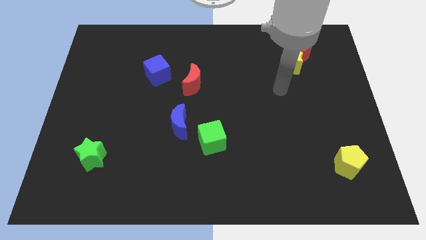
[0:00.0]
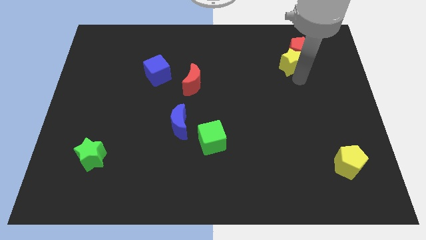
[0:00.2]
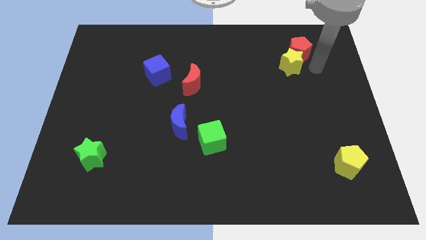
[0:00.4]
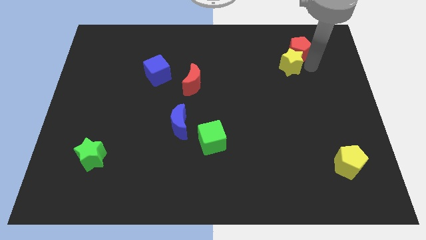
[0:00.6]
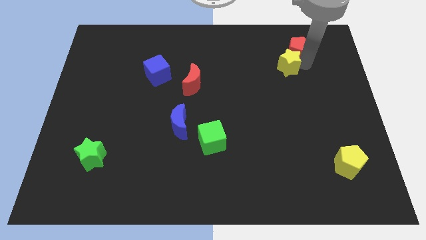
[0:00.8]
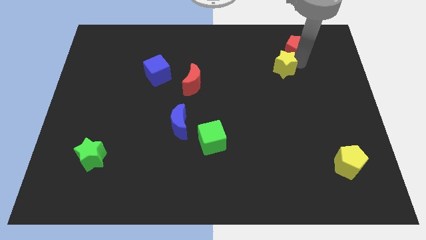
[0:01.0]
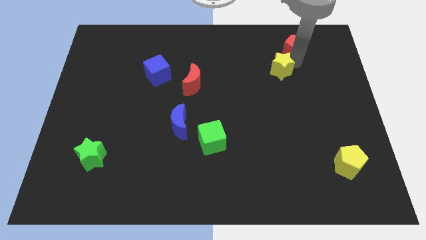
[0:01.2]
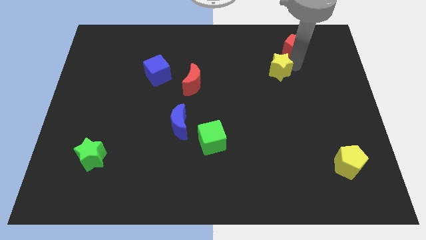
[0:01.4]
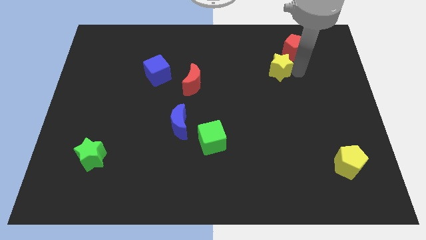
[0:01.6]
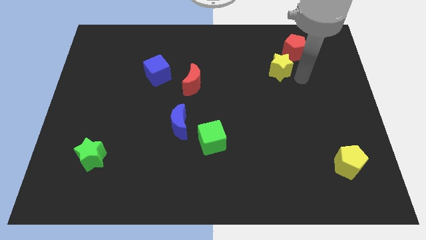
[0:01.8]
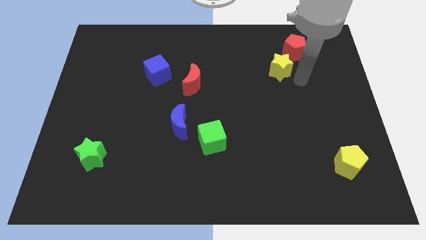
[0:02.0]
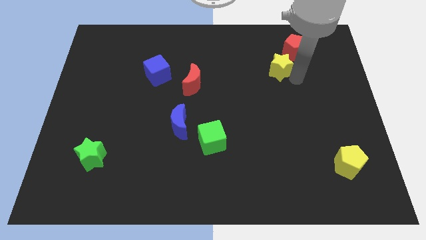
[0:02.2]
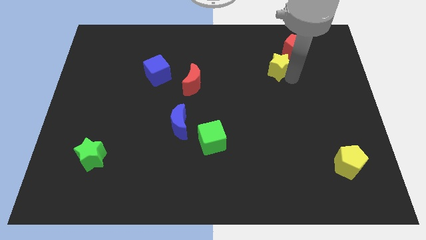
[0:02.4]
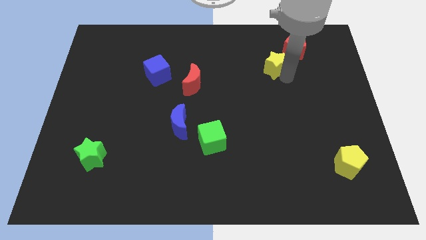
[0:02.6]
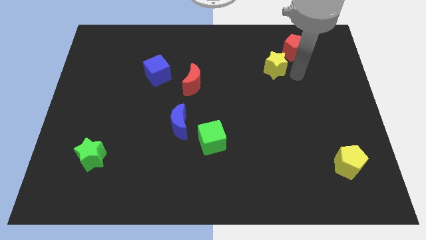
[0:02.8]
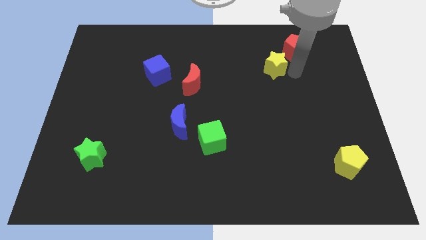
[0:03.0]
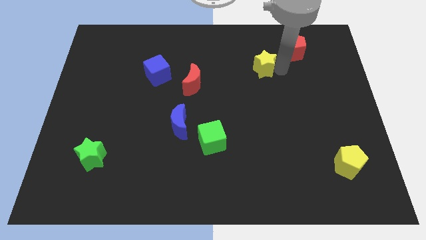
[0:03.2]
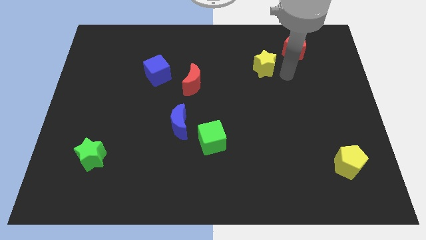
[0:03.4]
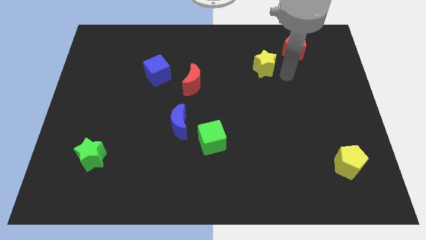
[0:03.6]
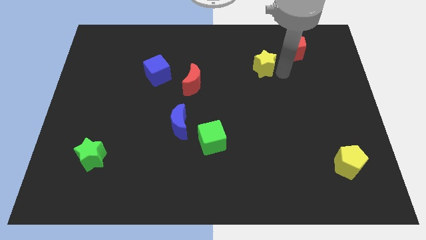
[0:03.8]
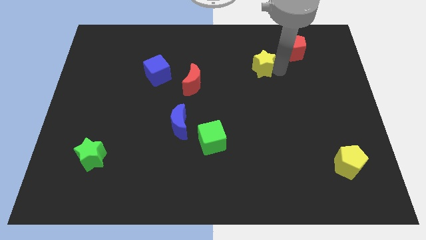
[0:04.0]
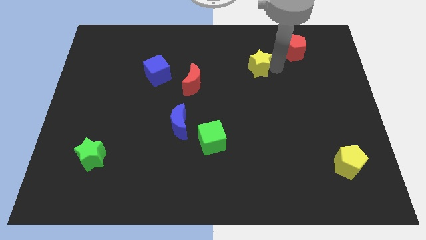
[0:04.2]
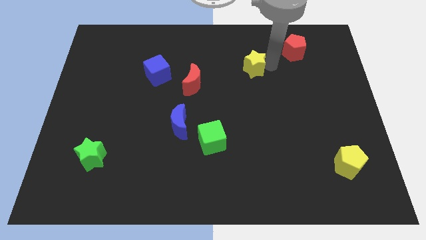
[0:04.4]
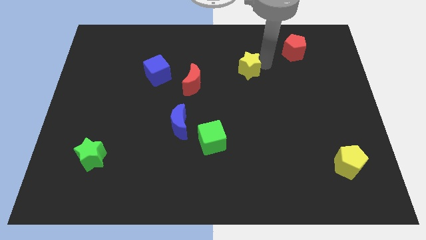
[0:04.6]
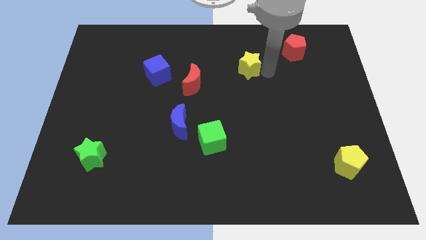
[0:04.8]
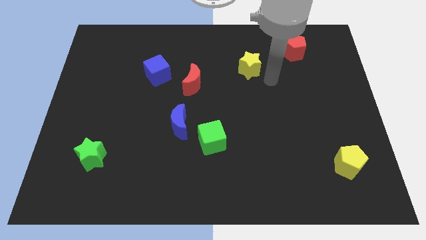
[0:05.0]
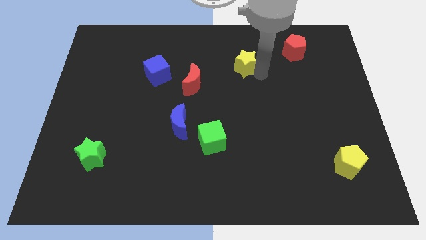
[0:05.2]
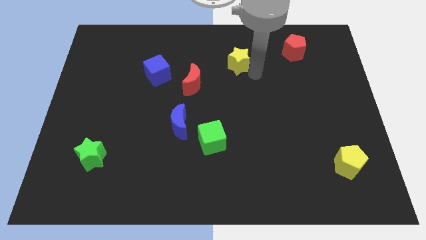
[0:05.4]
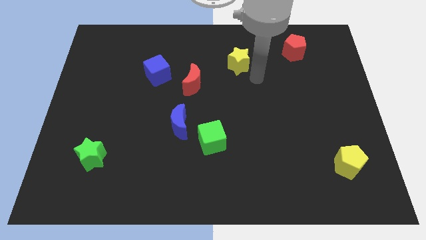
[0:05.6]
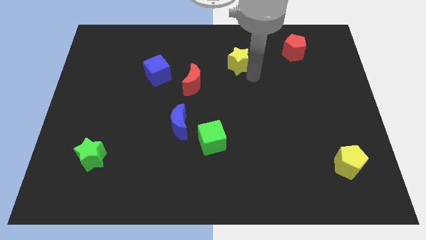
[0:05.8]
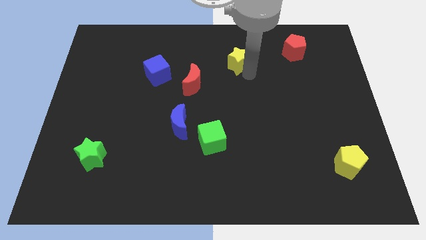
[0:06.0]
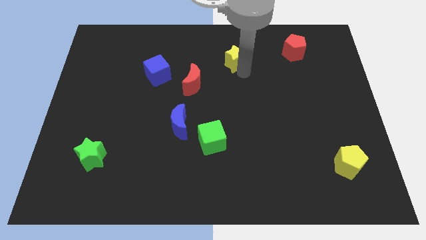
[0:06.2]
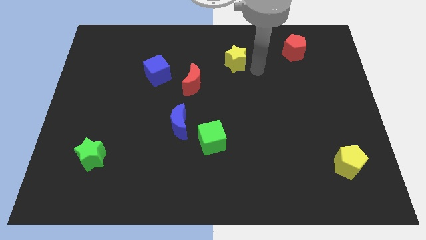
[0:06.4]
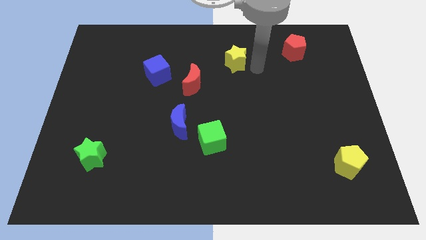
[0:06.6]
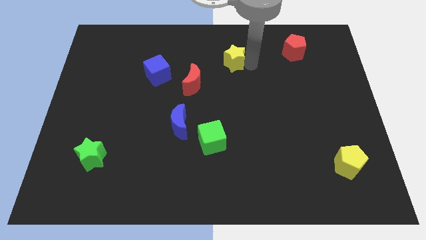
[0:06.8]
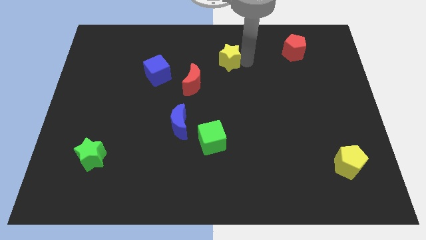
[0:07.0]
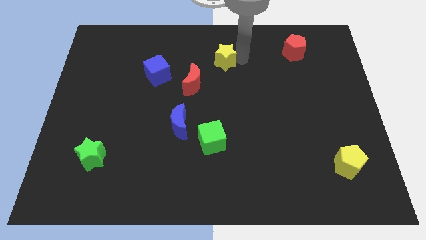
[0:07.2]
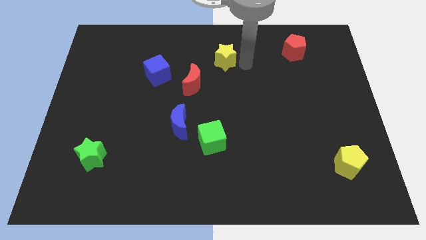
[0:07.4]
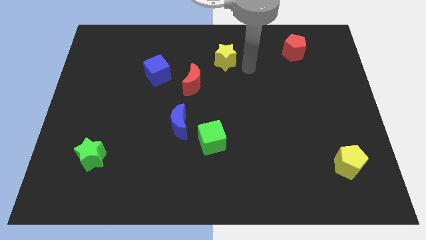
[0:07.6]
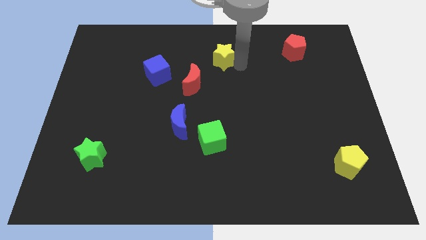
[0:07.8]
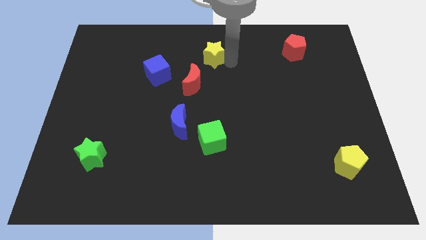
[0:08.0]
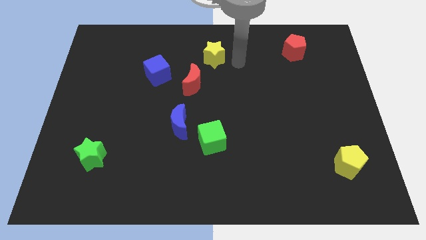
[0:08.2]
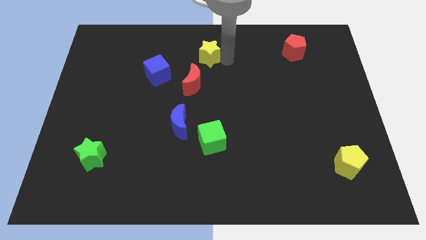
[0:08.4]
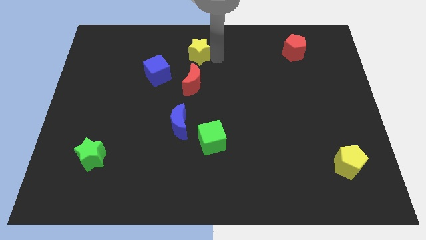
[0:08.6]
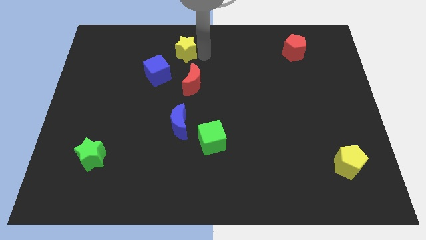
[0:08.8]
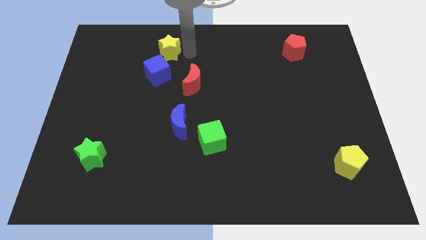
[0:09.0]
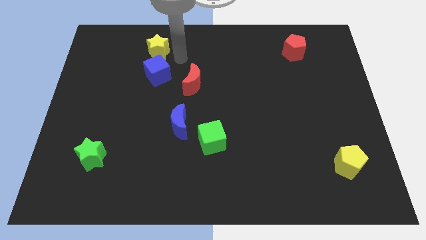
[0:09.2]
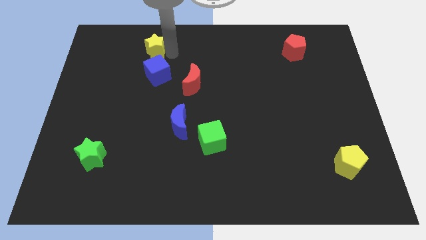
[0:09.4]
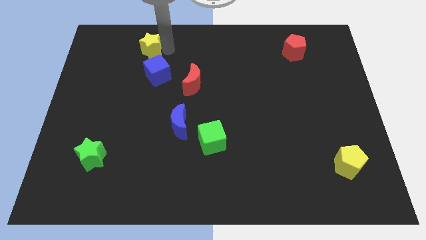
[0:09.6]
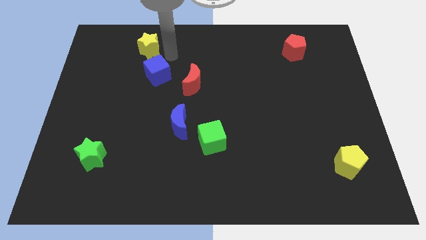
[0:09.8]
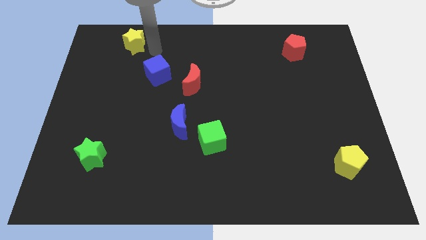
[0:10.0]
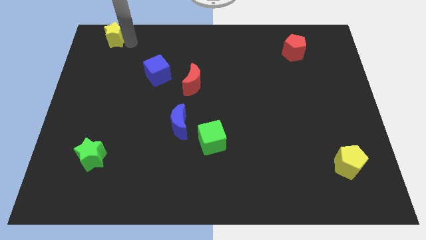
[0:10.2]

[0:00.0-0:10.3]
push the yellow star to the top left of the board

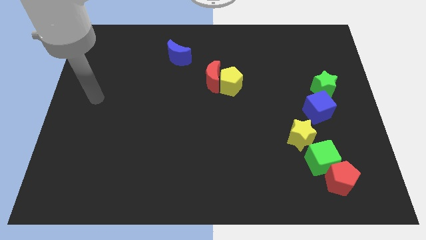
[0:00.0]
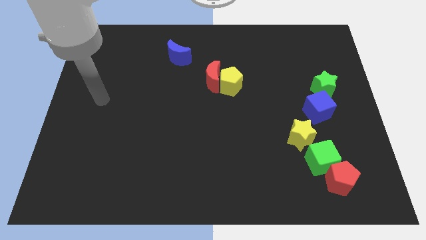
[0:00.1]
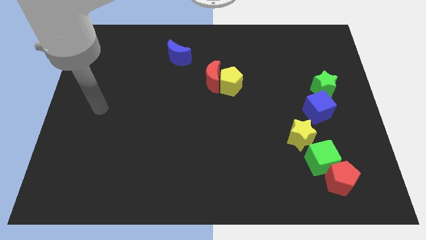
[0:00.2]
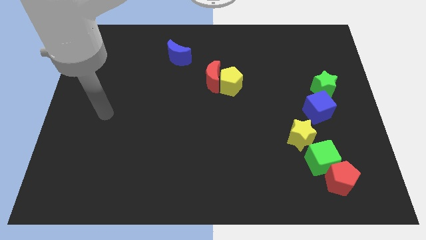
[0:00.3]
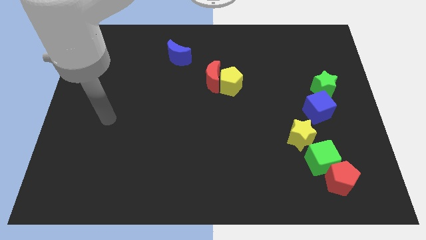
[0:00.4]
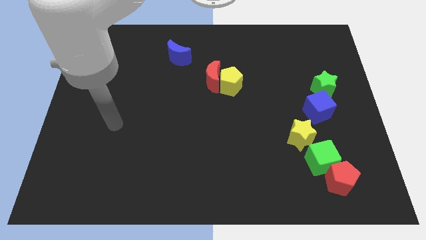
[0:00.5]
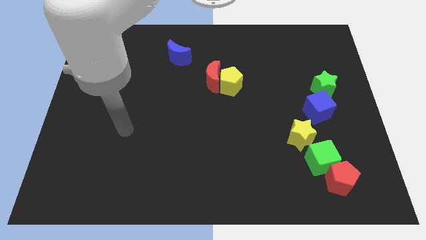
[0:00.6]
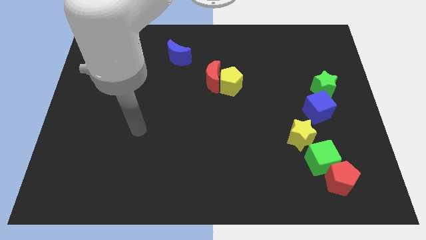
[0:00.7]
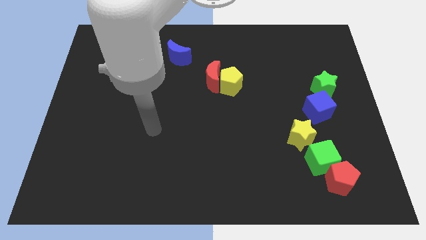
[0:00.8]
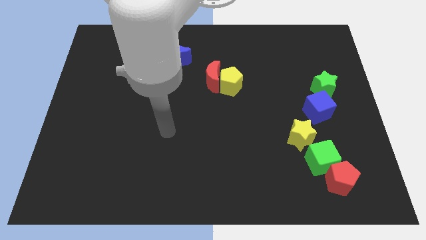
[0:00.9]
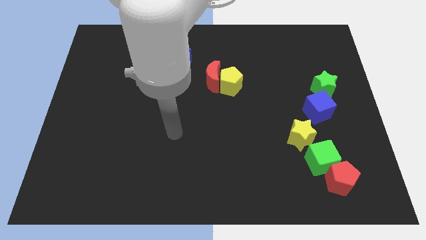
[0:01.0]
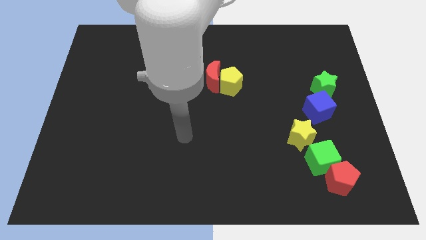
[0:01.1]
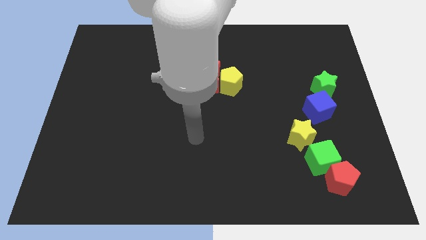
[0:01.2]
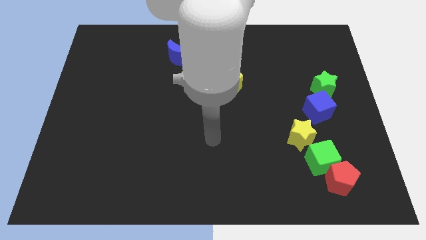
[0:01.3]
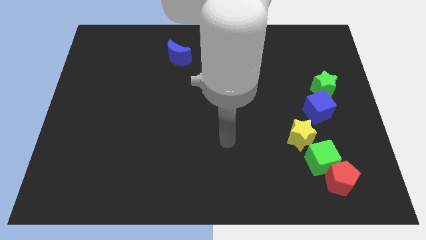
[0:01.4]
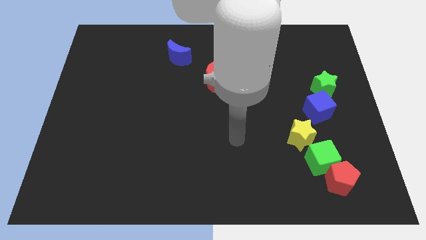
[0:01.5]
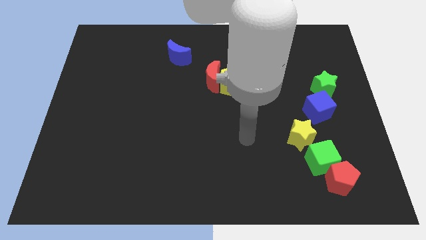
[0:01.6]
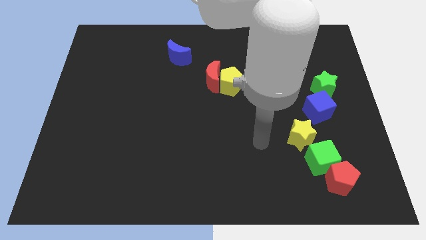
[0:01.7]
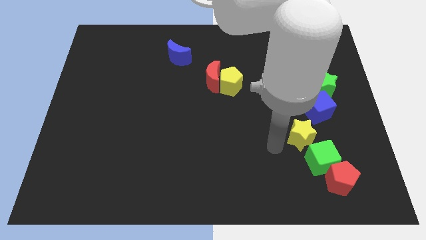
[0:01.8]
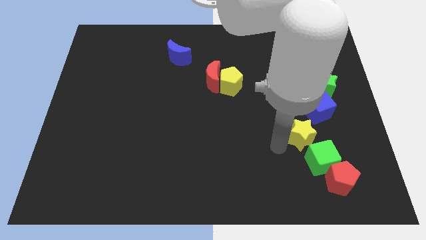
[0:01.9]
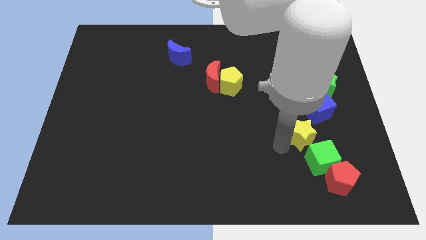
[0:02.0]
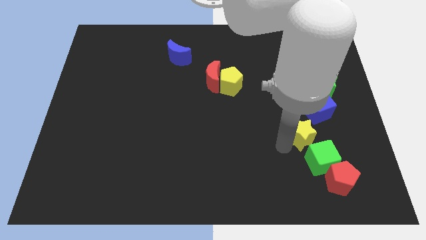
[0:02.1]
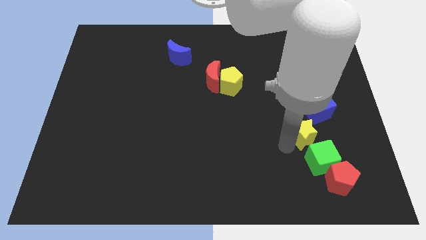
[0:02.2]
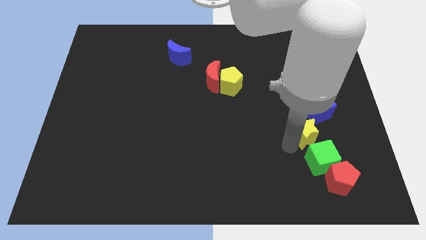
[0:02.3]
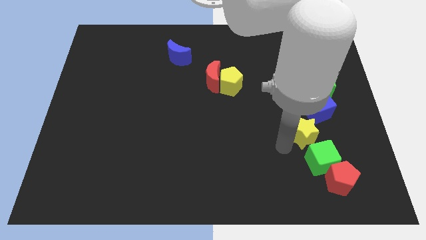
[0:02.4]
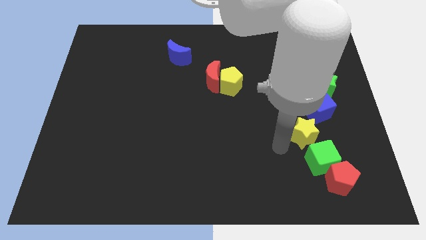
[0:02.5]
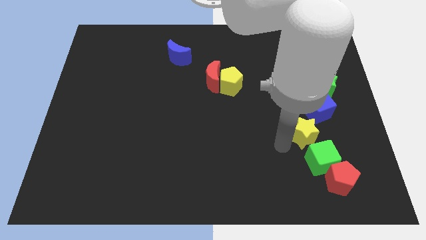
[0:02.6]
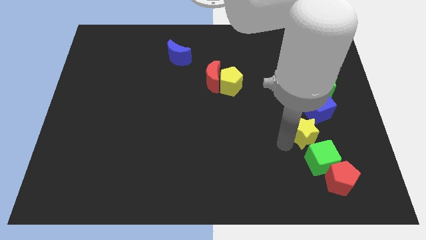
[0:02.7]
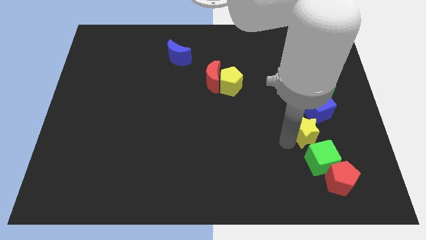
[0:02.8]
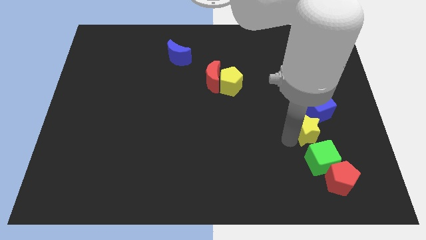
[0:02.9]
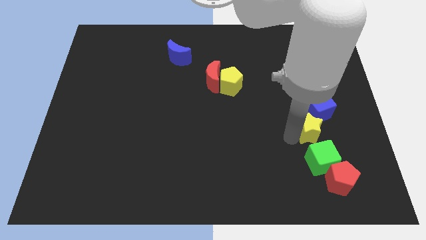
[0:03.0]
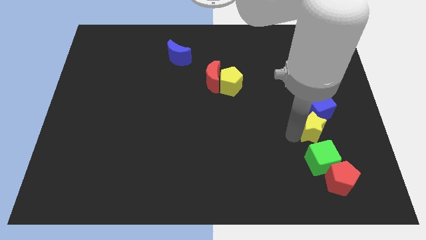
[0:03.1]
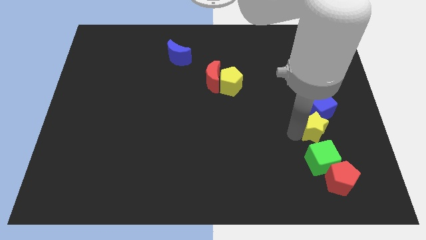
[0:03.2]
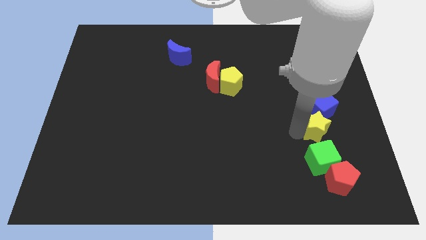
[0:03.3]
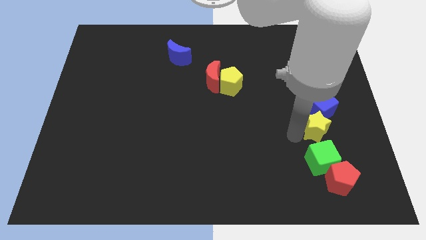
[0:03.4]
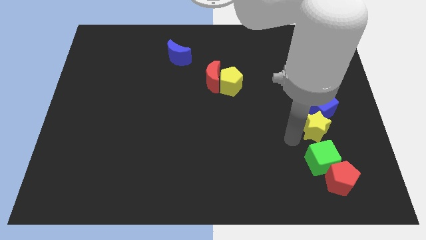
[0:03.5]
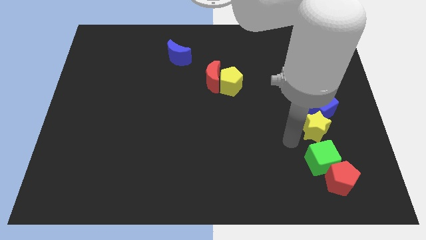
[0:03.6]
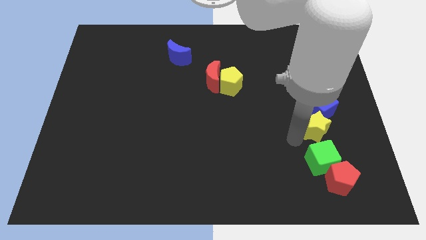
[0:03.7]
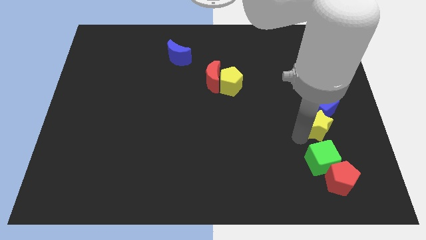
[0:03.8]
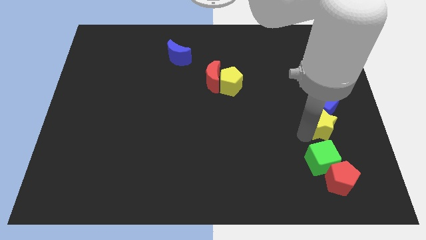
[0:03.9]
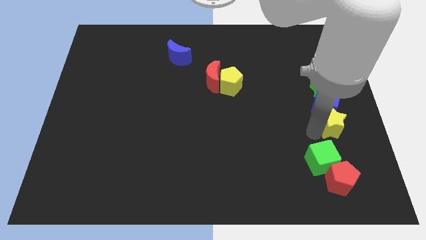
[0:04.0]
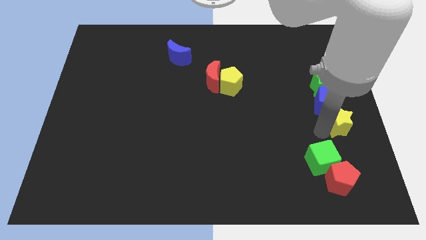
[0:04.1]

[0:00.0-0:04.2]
slide the yellow star to the center right
